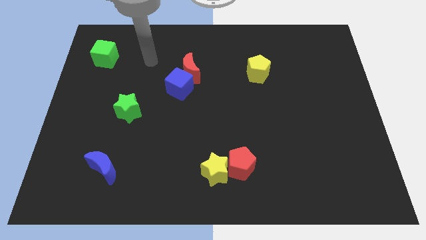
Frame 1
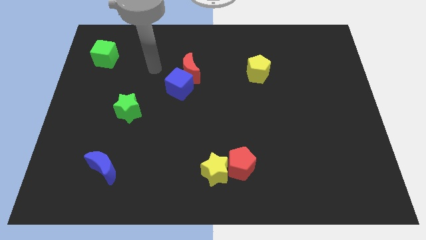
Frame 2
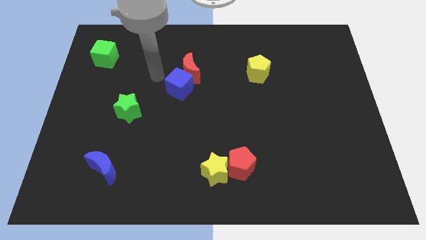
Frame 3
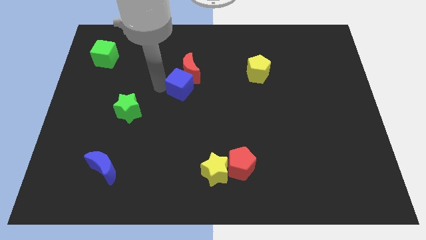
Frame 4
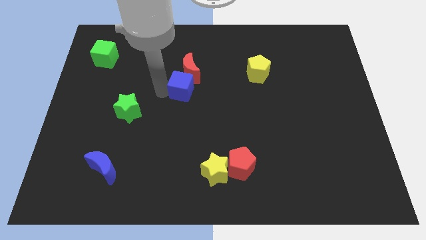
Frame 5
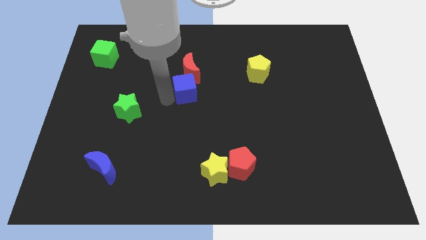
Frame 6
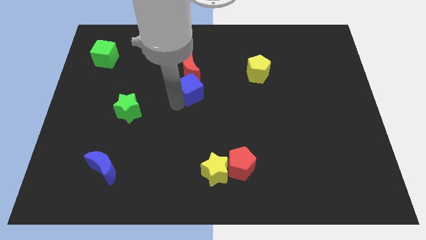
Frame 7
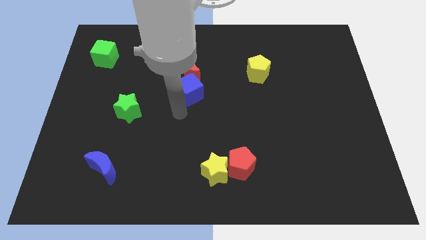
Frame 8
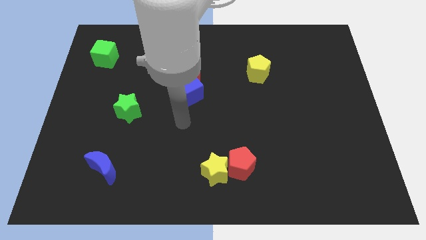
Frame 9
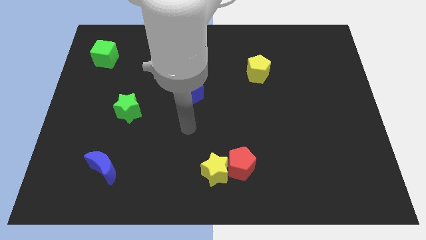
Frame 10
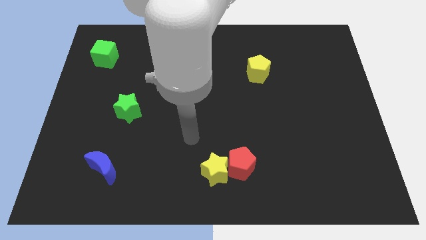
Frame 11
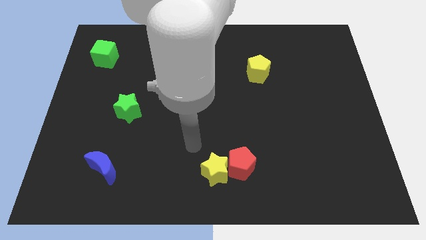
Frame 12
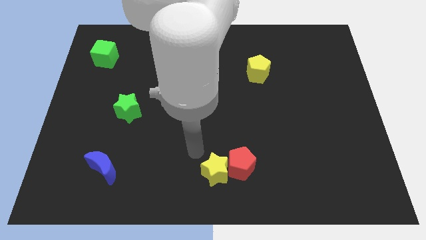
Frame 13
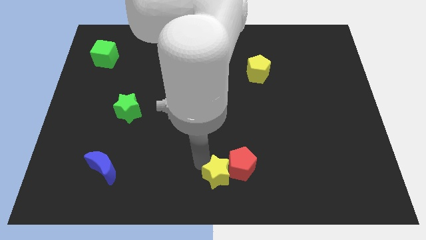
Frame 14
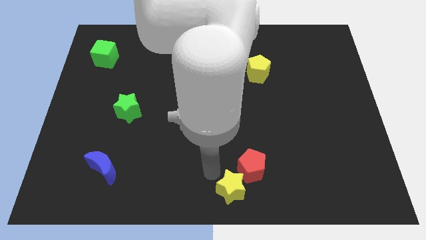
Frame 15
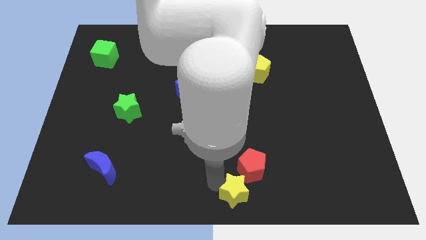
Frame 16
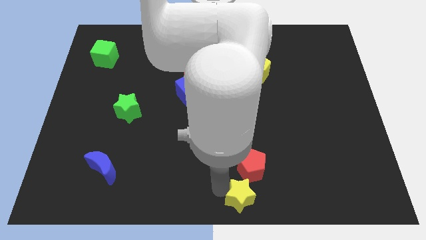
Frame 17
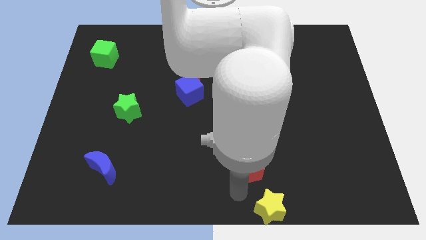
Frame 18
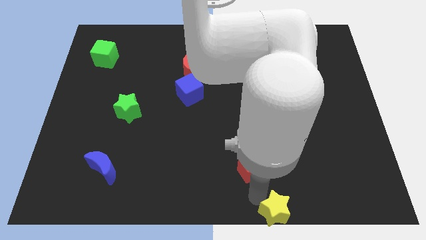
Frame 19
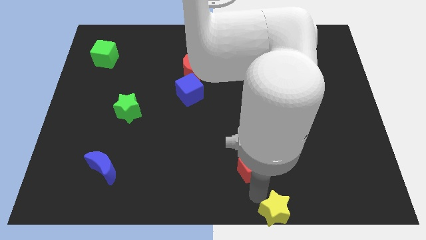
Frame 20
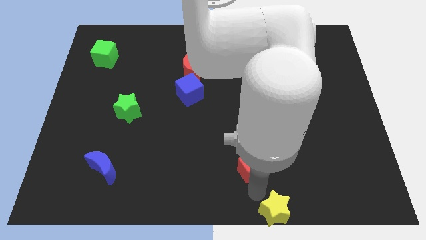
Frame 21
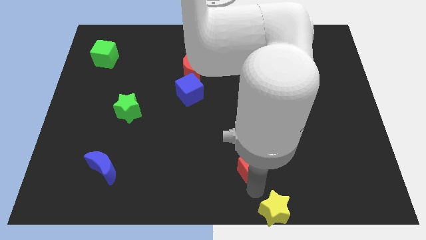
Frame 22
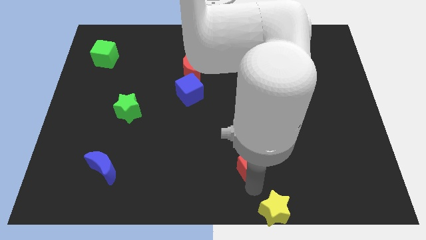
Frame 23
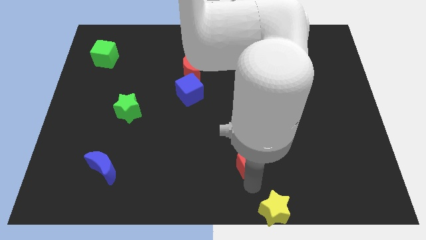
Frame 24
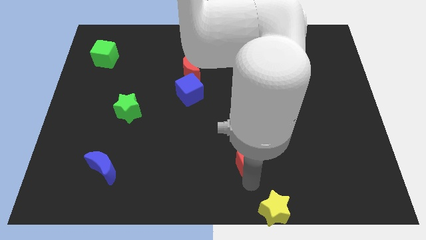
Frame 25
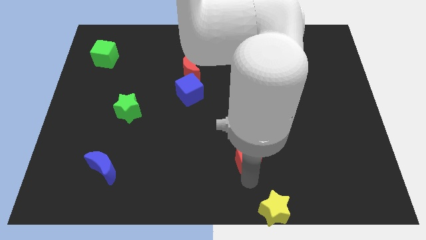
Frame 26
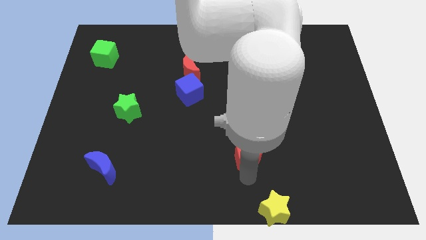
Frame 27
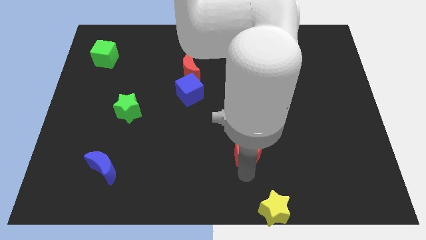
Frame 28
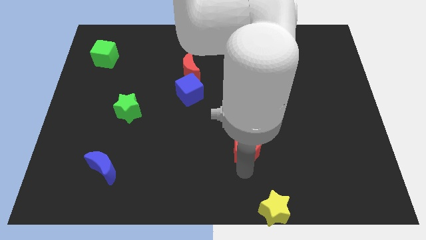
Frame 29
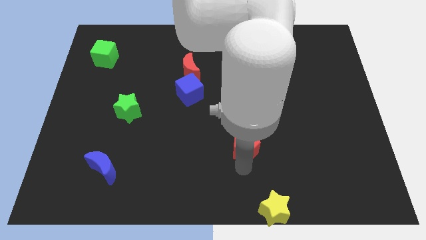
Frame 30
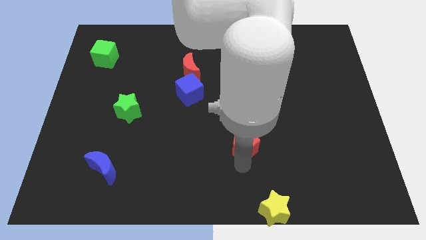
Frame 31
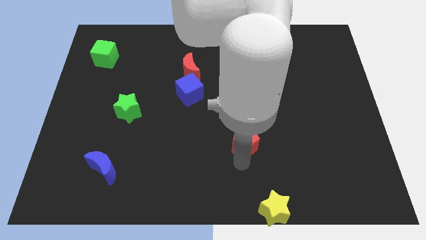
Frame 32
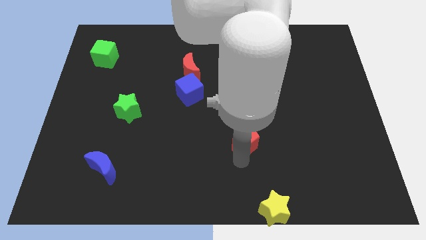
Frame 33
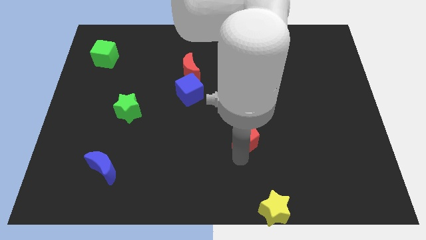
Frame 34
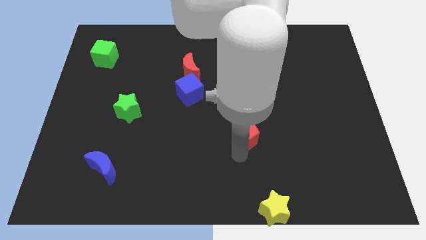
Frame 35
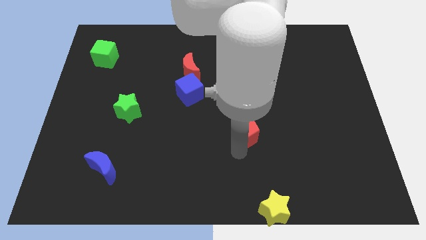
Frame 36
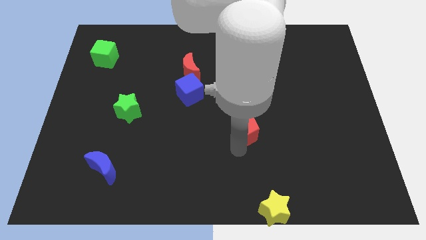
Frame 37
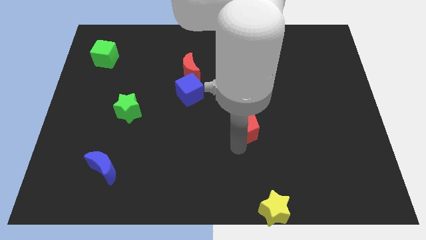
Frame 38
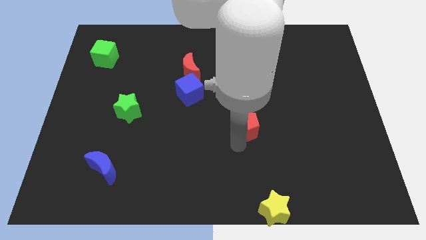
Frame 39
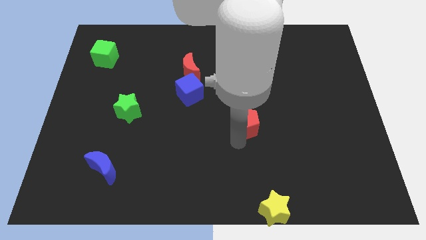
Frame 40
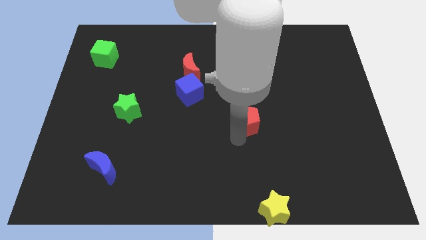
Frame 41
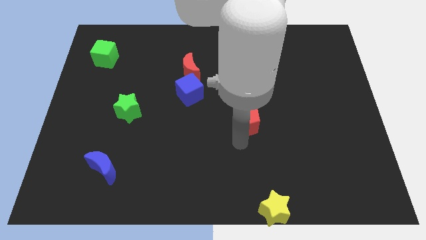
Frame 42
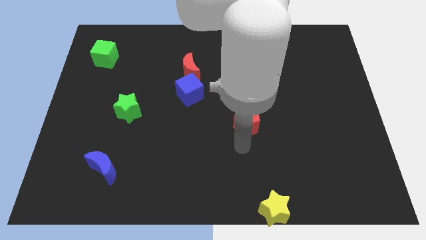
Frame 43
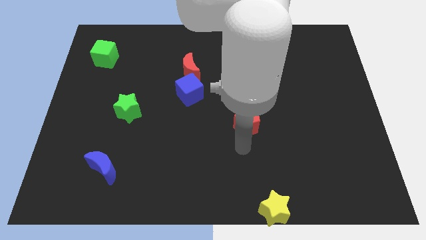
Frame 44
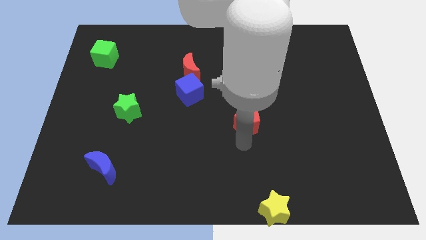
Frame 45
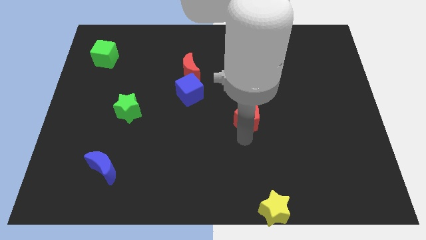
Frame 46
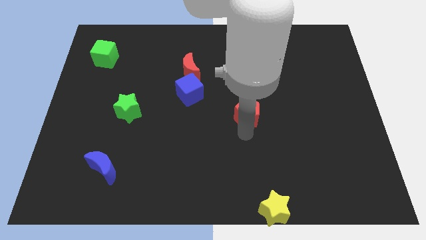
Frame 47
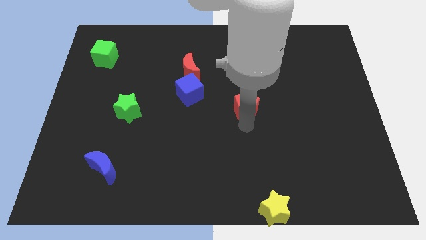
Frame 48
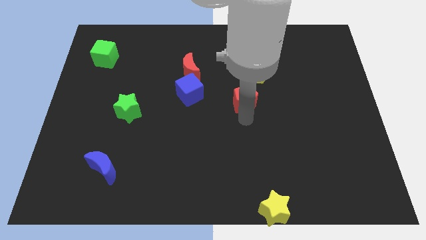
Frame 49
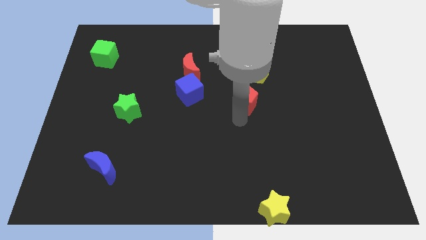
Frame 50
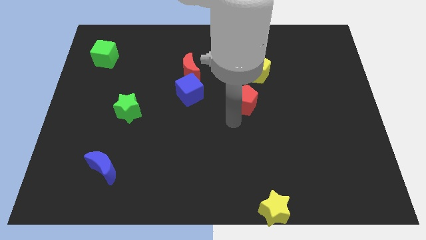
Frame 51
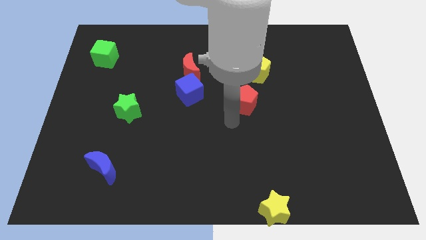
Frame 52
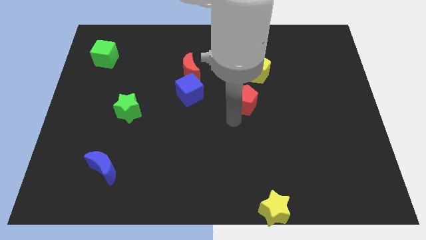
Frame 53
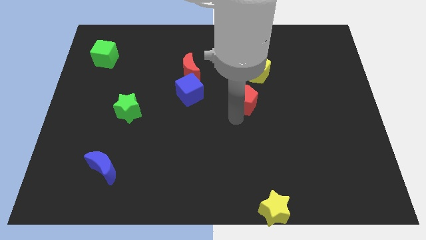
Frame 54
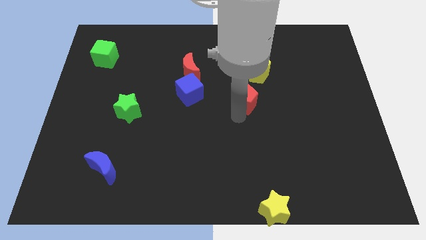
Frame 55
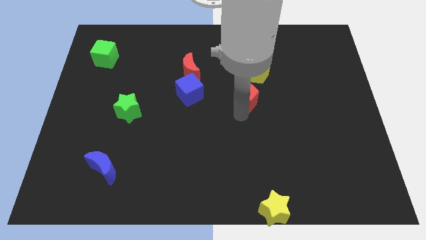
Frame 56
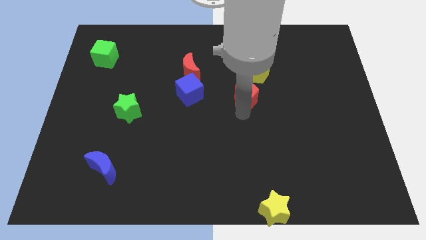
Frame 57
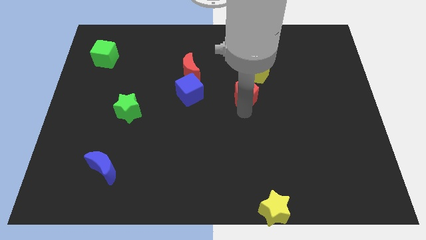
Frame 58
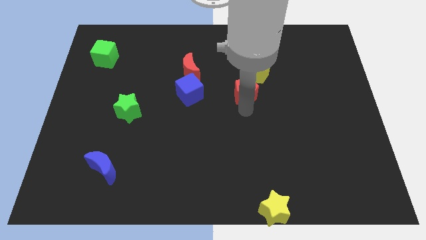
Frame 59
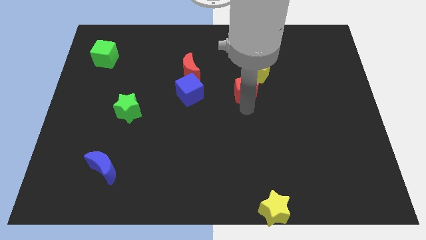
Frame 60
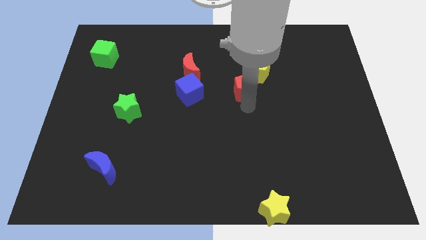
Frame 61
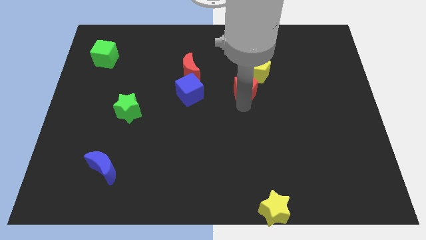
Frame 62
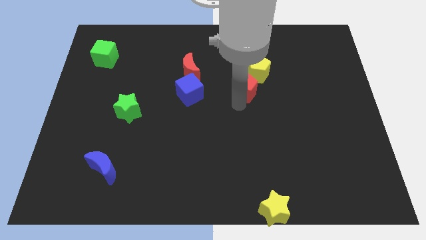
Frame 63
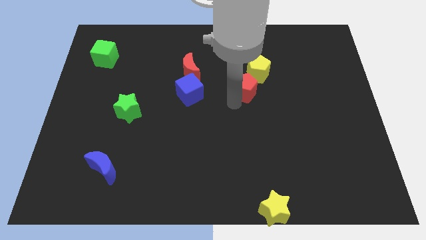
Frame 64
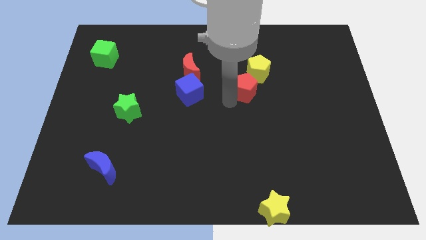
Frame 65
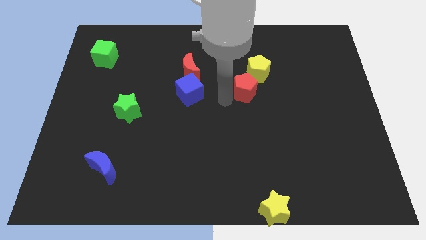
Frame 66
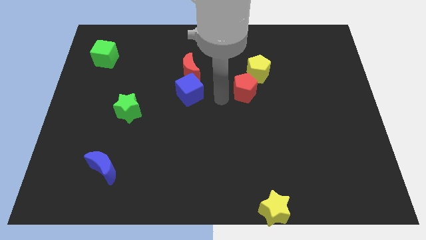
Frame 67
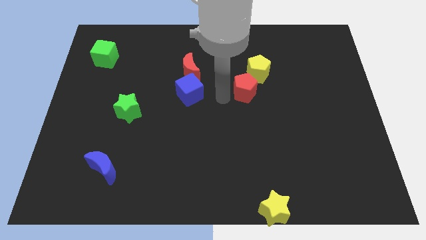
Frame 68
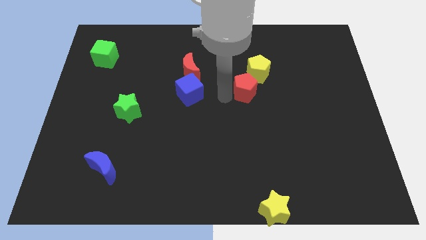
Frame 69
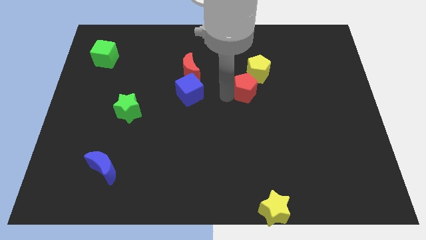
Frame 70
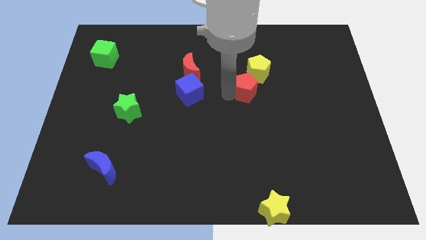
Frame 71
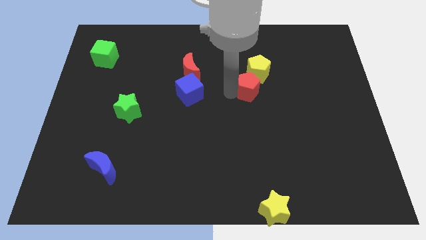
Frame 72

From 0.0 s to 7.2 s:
push the red pentagon next to the yellow pentagon
